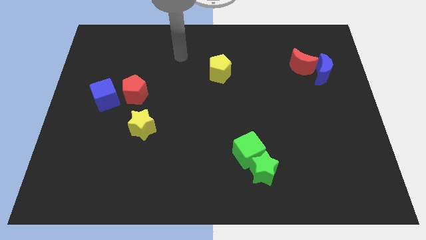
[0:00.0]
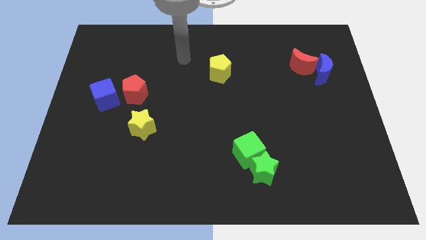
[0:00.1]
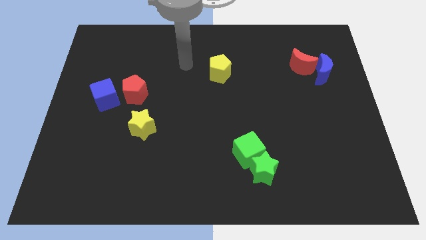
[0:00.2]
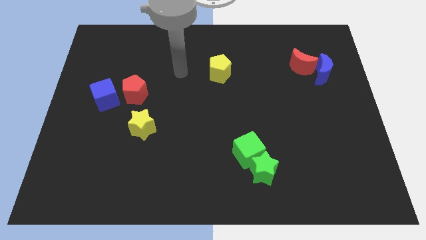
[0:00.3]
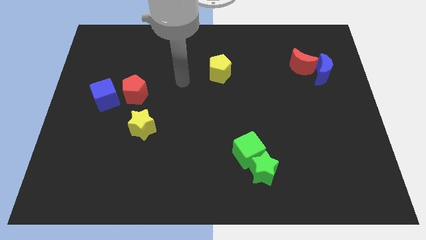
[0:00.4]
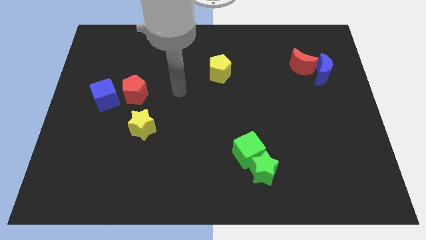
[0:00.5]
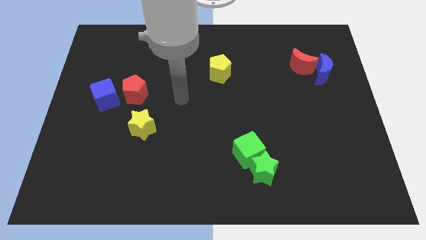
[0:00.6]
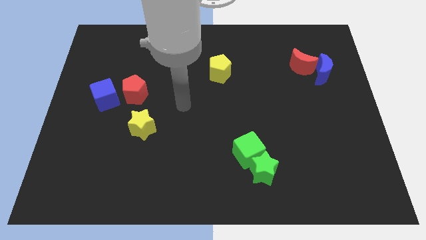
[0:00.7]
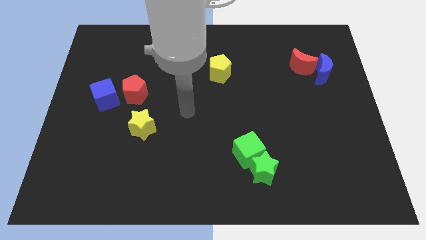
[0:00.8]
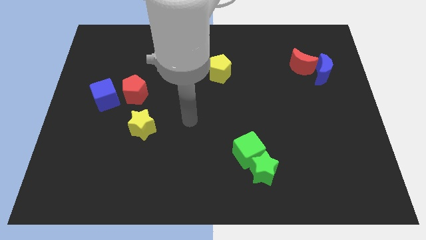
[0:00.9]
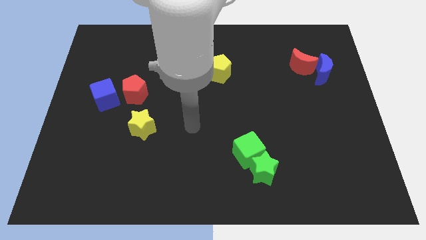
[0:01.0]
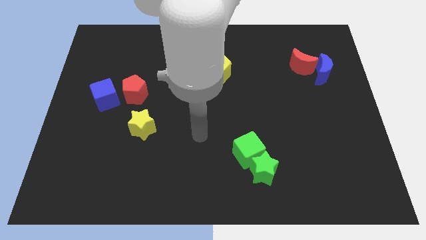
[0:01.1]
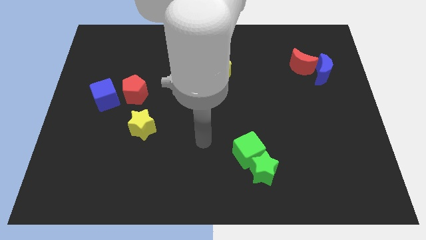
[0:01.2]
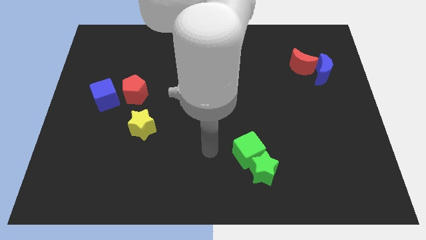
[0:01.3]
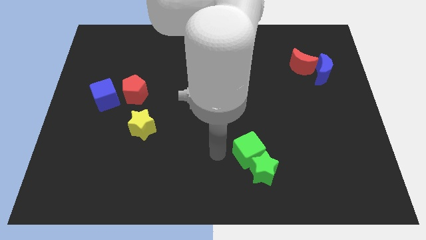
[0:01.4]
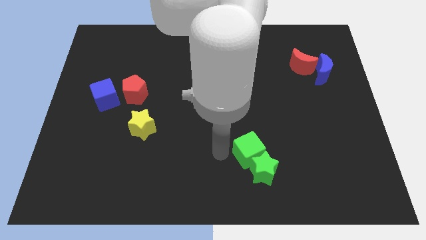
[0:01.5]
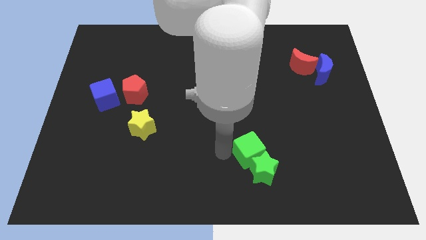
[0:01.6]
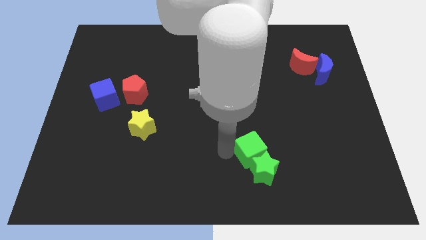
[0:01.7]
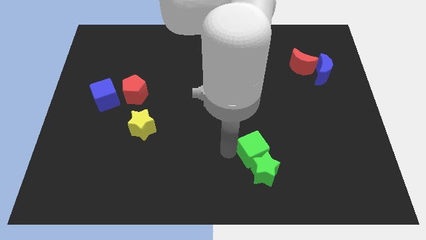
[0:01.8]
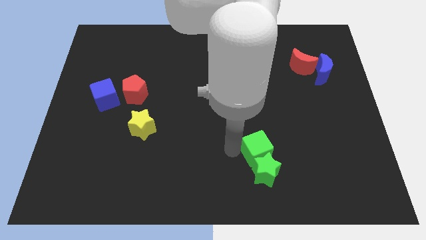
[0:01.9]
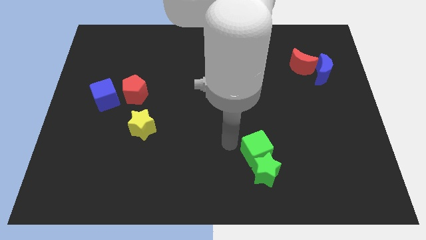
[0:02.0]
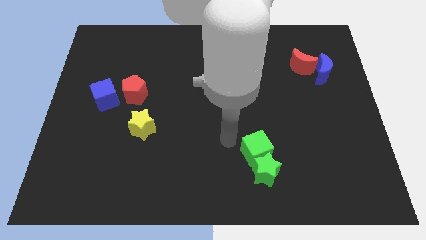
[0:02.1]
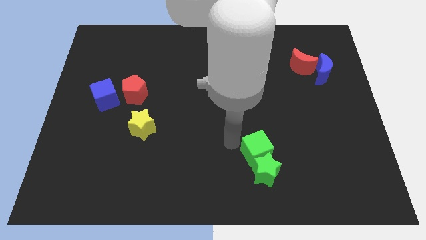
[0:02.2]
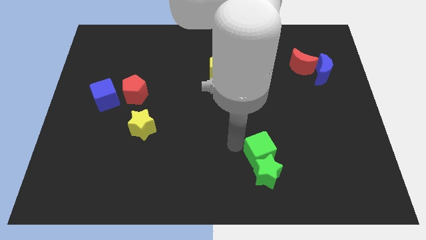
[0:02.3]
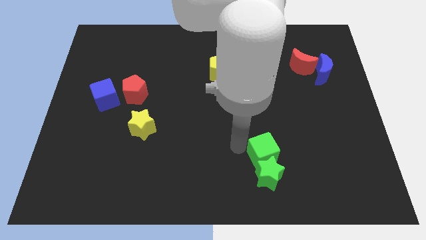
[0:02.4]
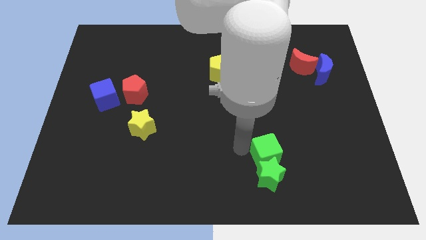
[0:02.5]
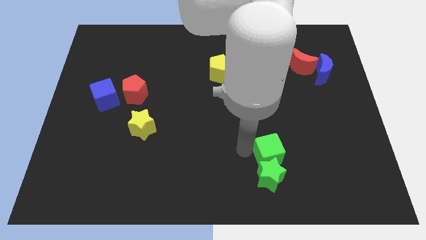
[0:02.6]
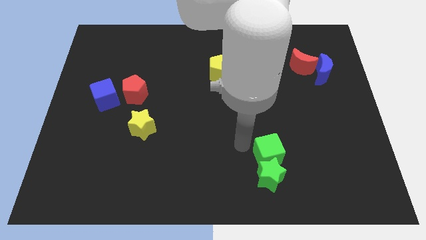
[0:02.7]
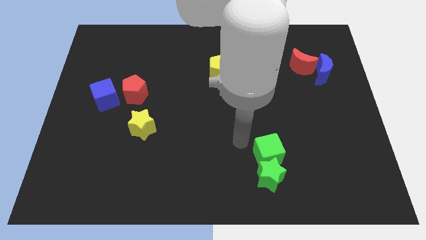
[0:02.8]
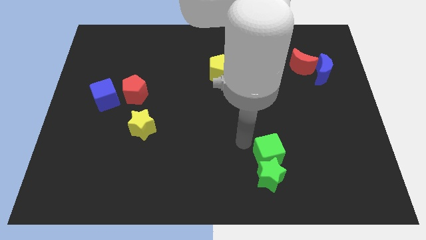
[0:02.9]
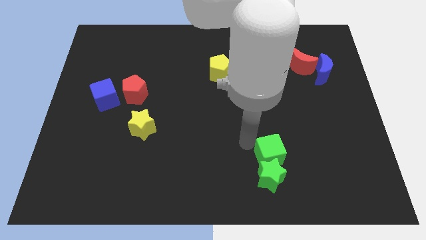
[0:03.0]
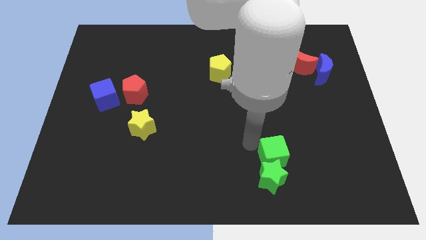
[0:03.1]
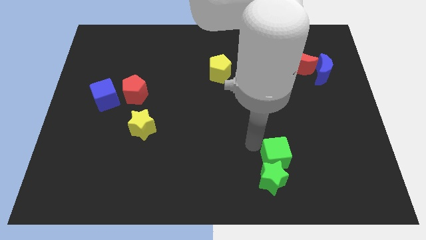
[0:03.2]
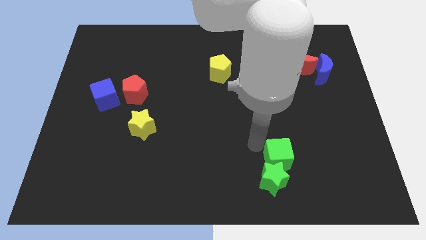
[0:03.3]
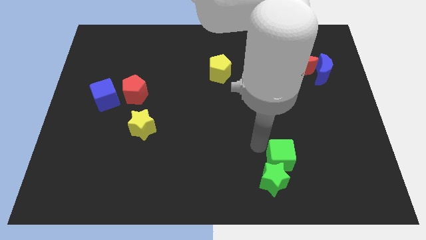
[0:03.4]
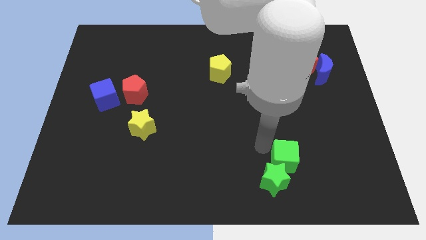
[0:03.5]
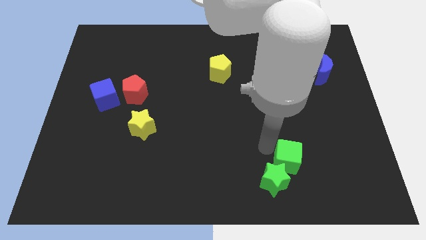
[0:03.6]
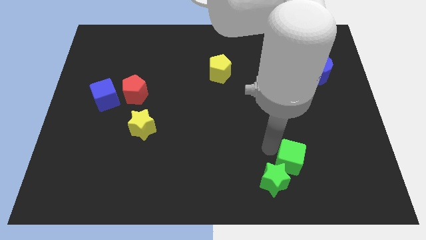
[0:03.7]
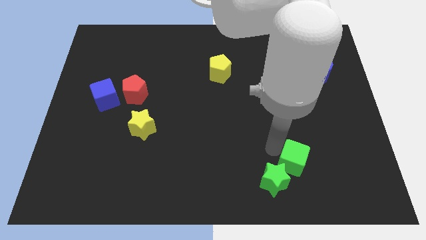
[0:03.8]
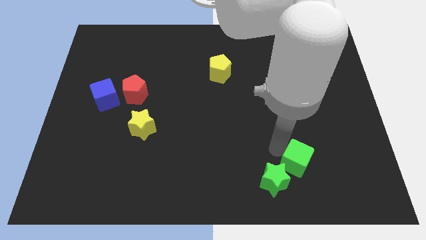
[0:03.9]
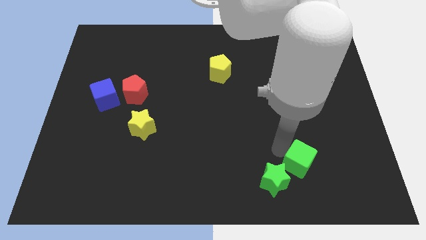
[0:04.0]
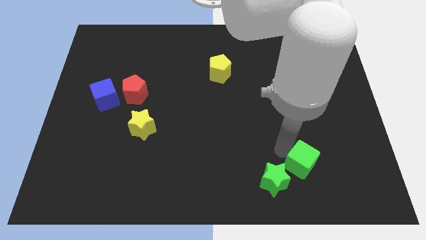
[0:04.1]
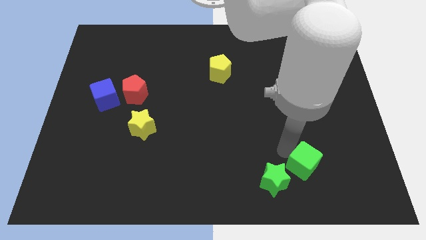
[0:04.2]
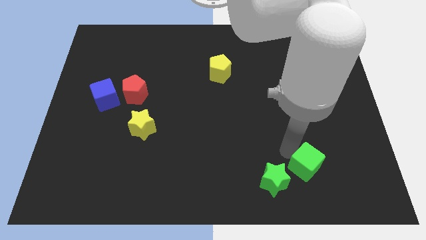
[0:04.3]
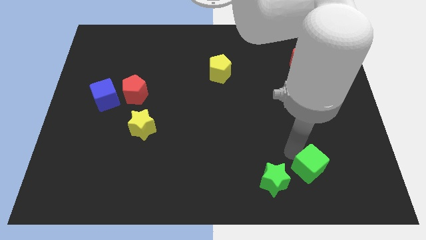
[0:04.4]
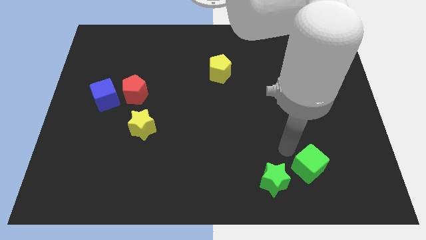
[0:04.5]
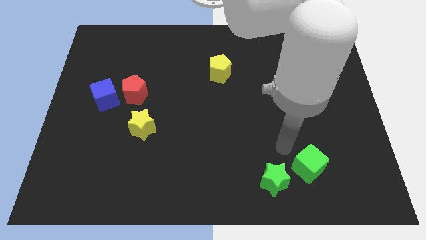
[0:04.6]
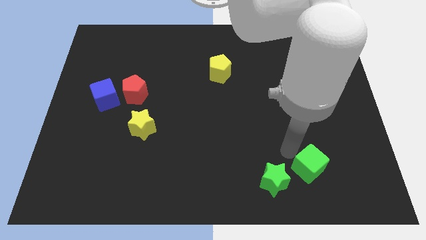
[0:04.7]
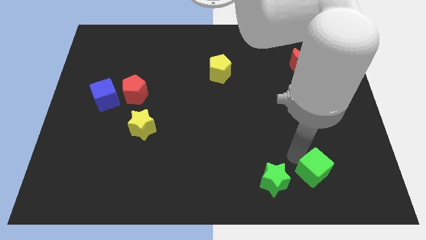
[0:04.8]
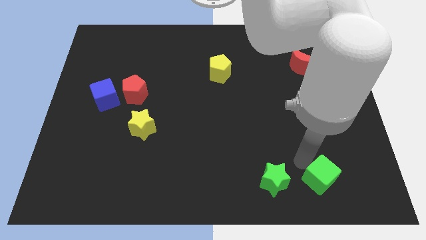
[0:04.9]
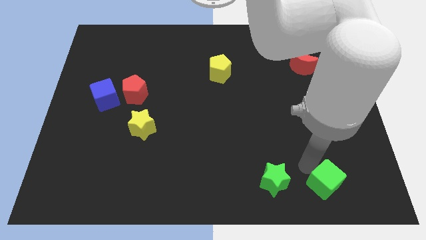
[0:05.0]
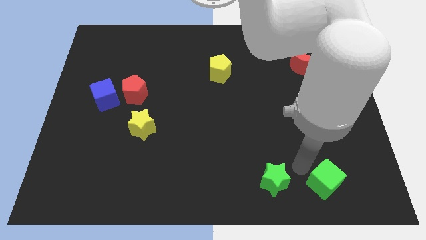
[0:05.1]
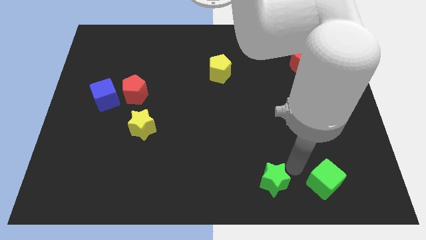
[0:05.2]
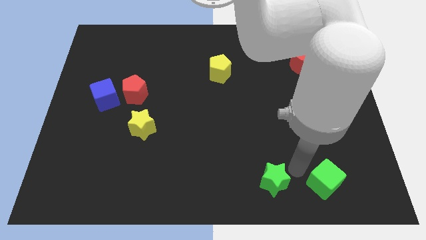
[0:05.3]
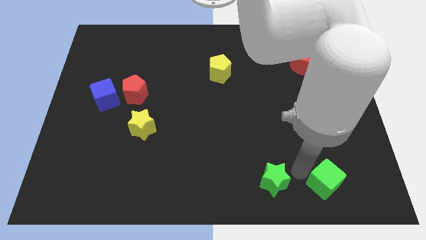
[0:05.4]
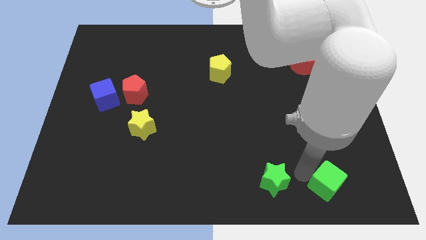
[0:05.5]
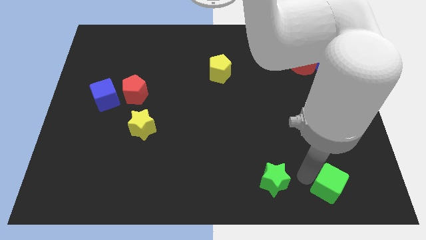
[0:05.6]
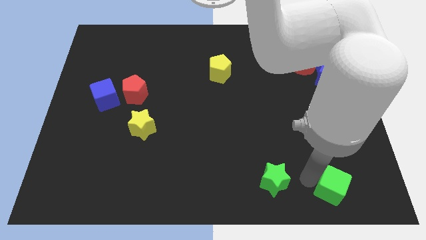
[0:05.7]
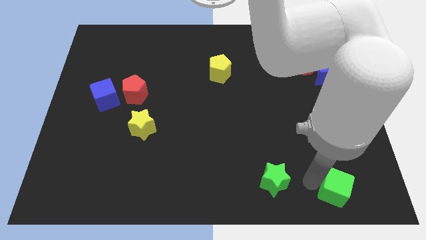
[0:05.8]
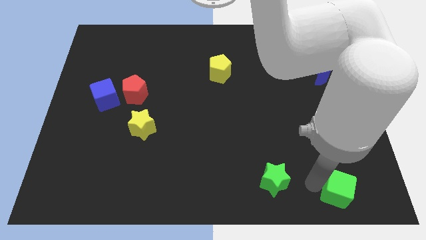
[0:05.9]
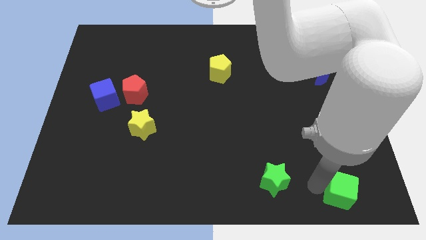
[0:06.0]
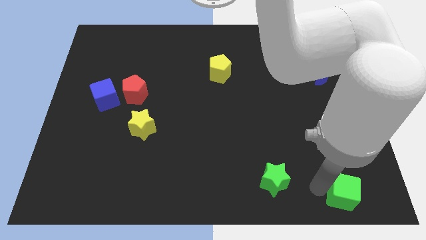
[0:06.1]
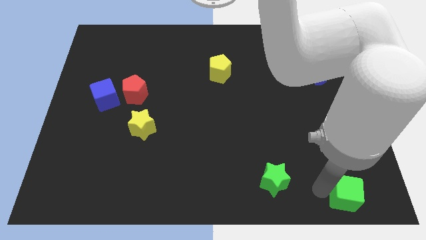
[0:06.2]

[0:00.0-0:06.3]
move the green cube to the bottom right of the board

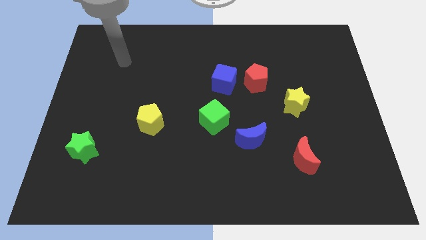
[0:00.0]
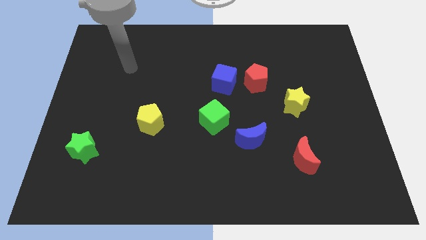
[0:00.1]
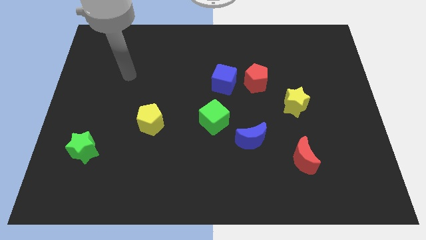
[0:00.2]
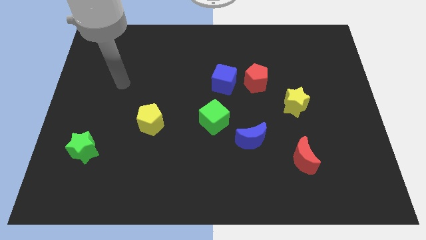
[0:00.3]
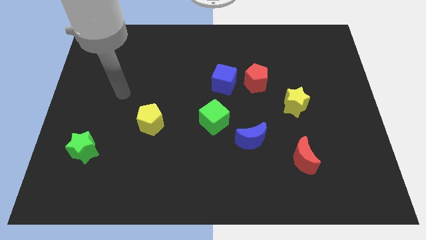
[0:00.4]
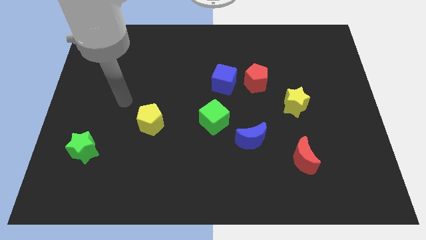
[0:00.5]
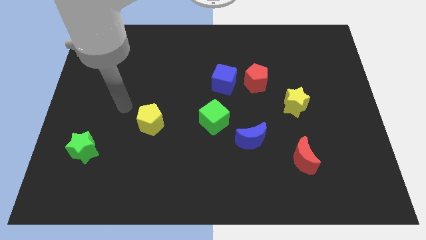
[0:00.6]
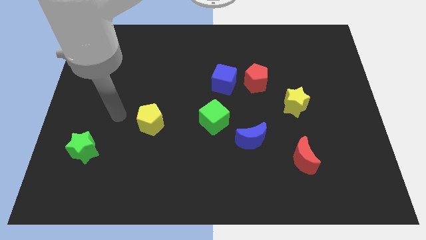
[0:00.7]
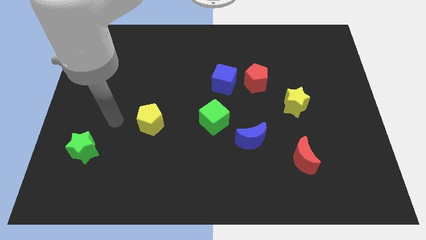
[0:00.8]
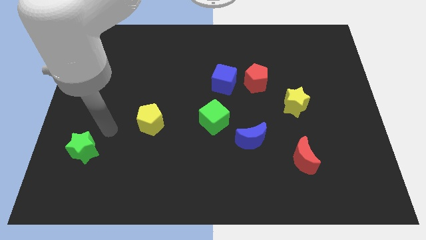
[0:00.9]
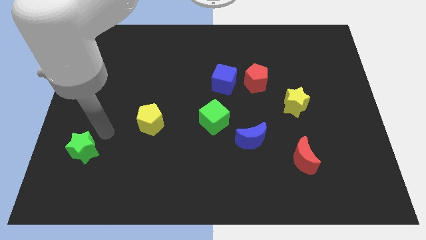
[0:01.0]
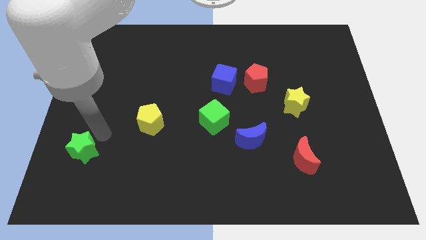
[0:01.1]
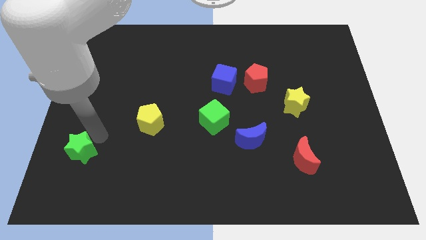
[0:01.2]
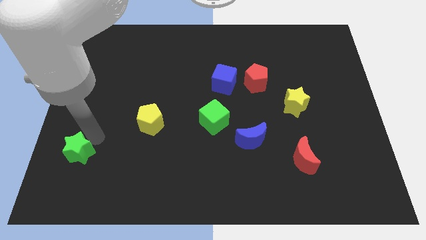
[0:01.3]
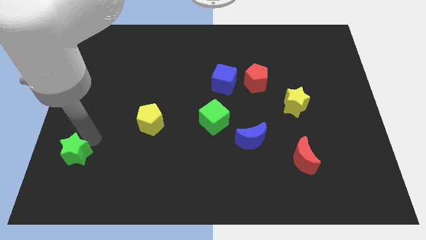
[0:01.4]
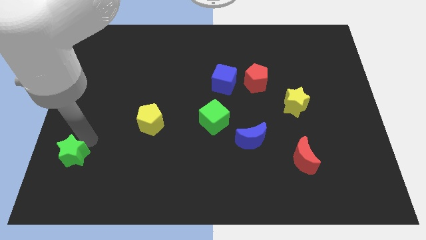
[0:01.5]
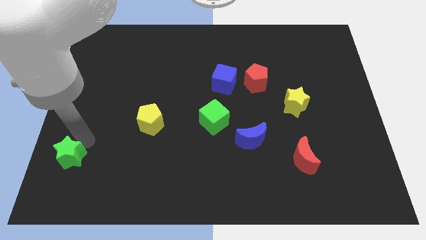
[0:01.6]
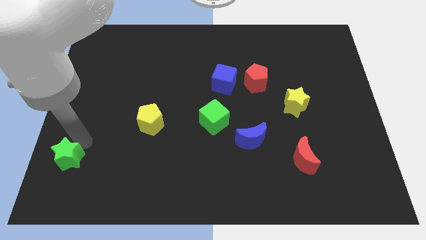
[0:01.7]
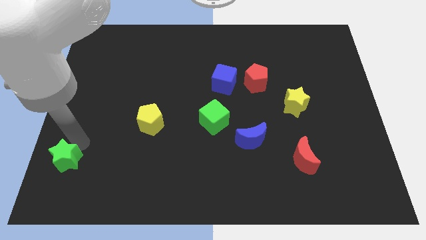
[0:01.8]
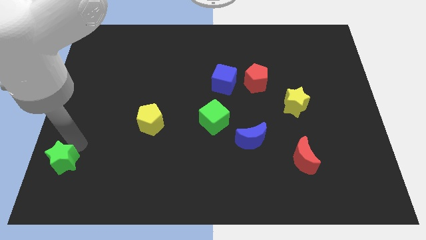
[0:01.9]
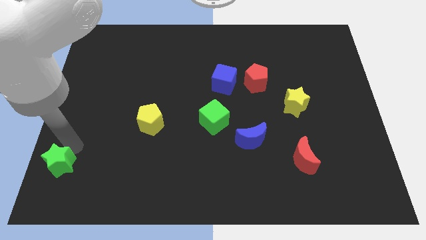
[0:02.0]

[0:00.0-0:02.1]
put the green star to the bottom left
